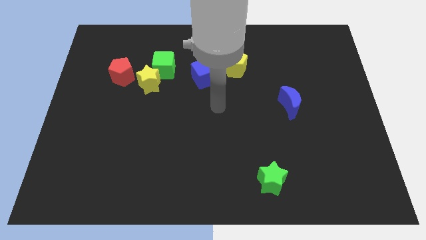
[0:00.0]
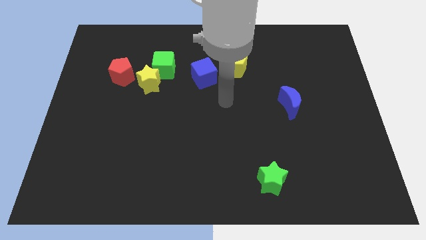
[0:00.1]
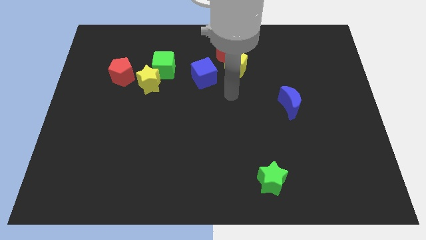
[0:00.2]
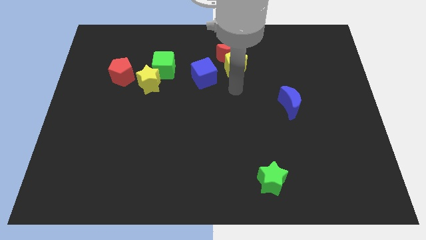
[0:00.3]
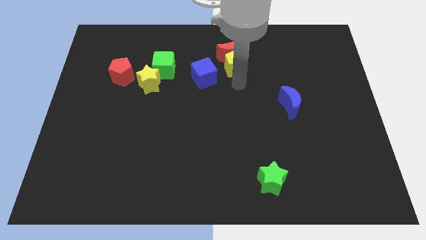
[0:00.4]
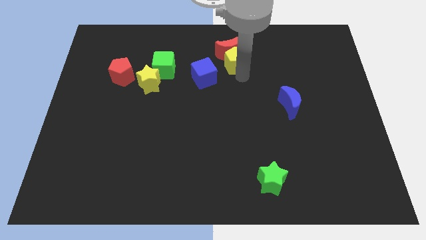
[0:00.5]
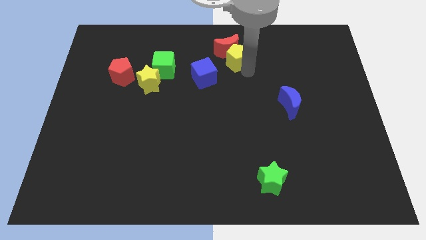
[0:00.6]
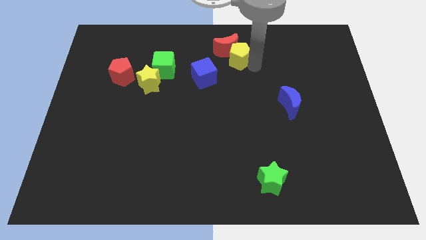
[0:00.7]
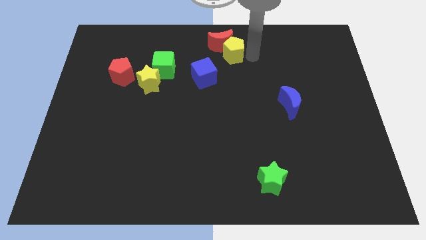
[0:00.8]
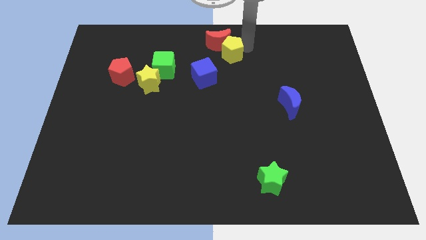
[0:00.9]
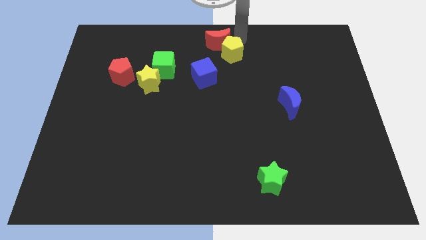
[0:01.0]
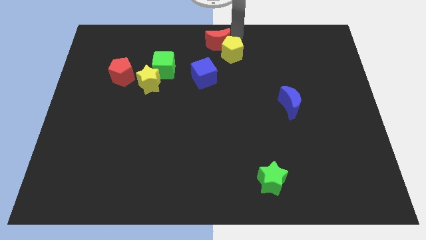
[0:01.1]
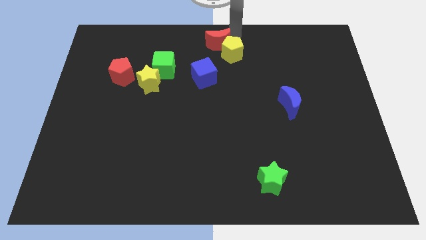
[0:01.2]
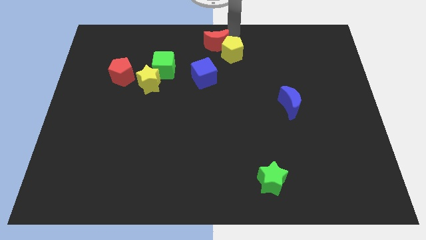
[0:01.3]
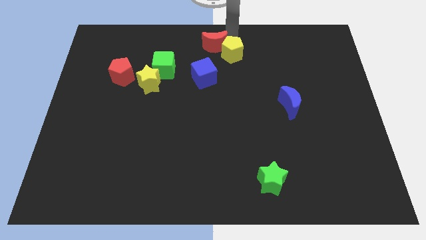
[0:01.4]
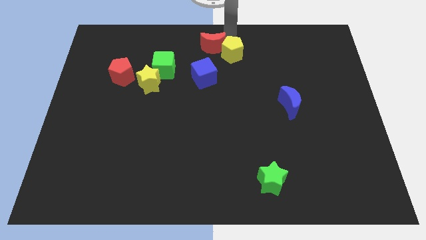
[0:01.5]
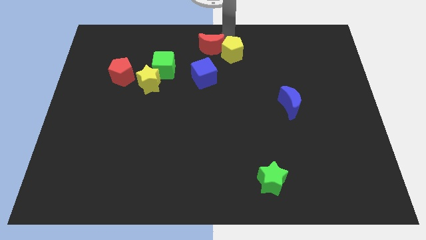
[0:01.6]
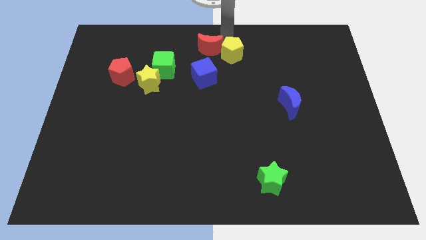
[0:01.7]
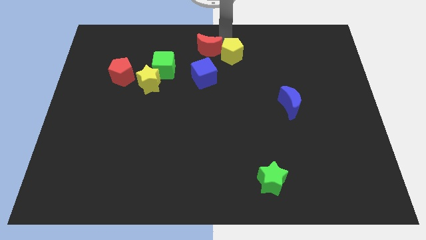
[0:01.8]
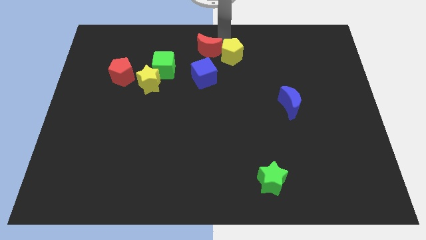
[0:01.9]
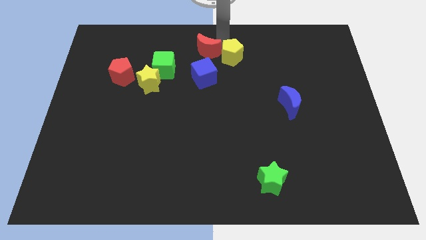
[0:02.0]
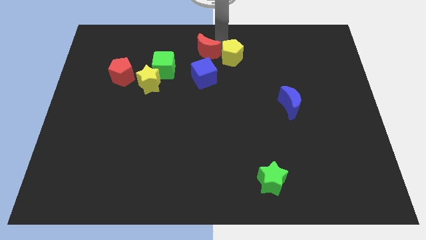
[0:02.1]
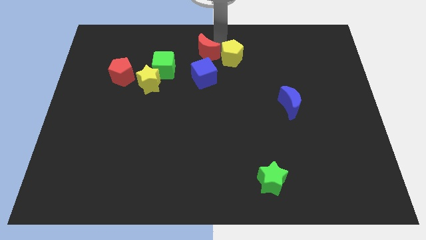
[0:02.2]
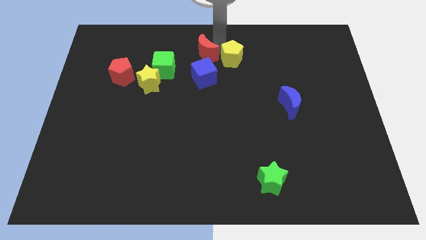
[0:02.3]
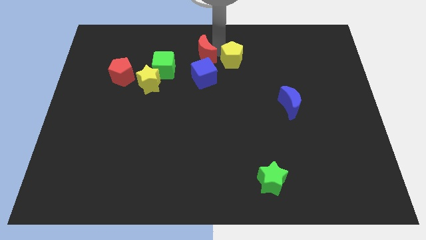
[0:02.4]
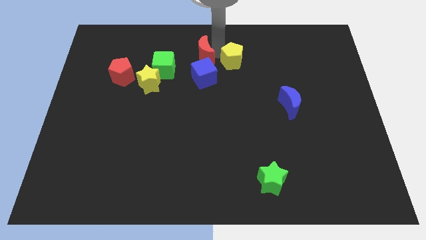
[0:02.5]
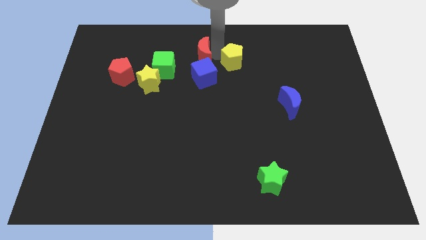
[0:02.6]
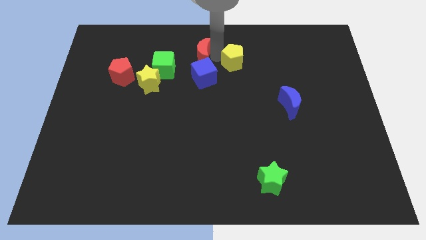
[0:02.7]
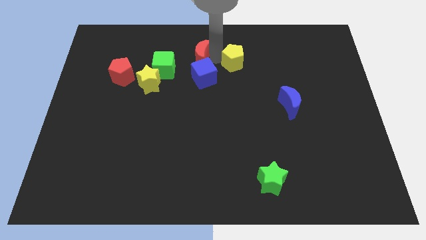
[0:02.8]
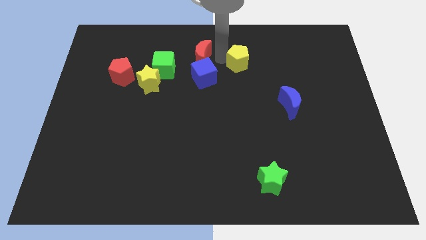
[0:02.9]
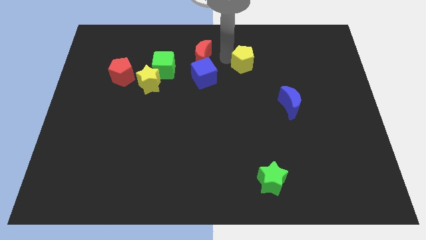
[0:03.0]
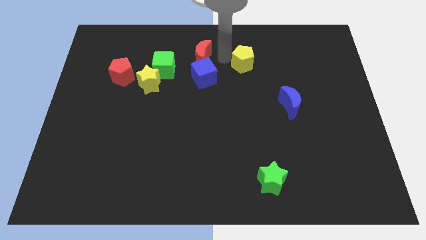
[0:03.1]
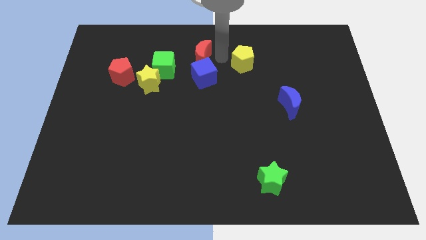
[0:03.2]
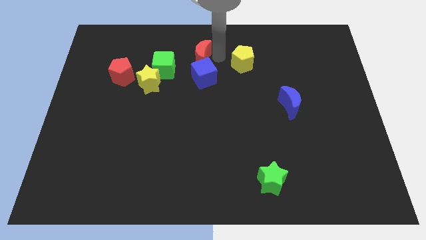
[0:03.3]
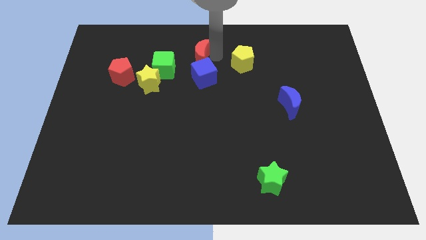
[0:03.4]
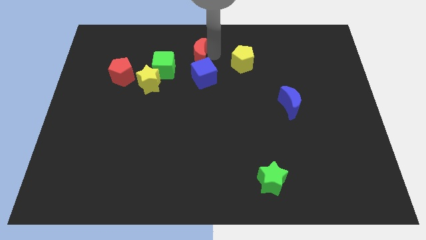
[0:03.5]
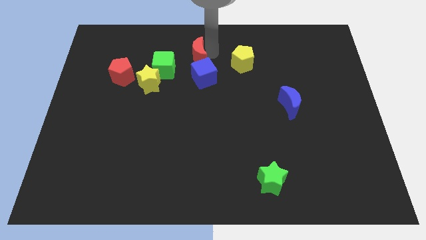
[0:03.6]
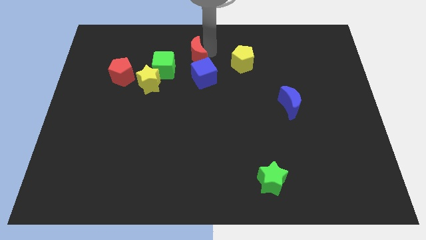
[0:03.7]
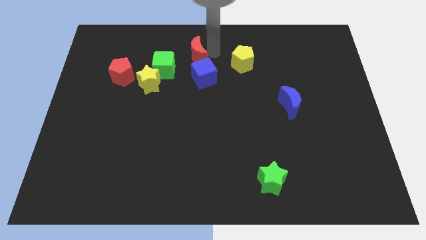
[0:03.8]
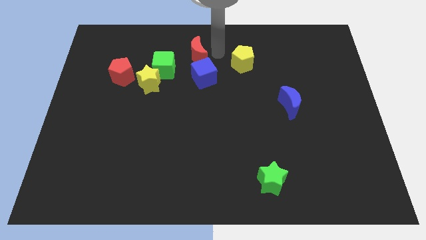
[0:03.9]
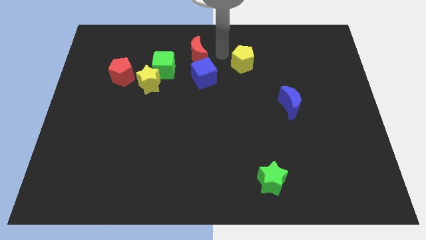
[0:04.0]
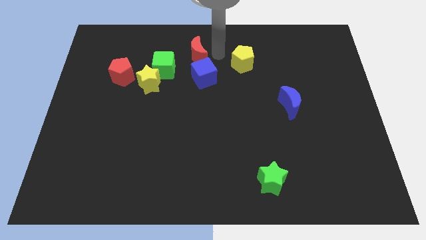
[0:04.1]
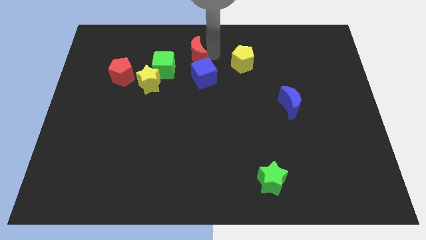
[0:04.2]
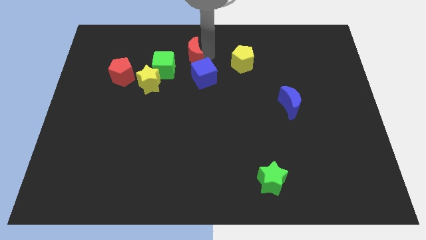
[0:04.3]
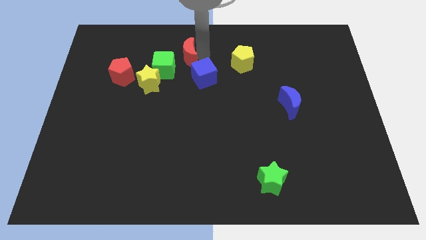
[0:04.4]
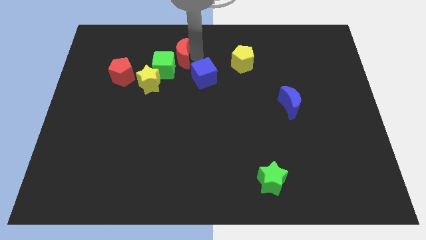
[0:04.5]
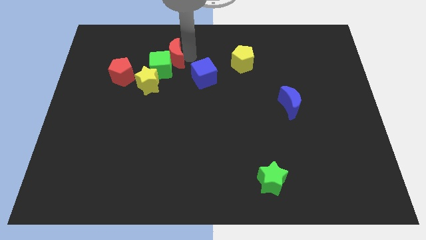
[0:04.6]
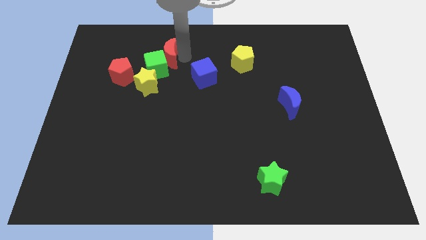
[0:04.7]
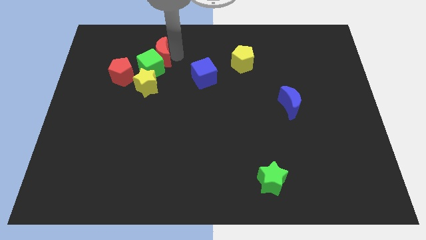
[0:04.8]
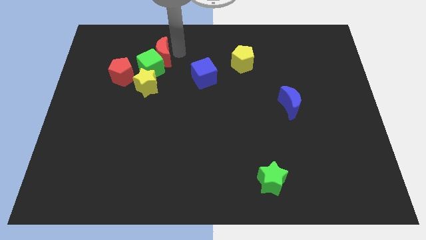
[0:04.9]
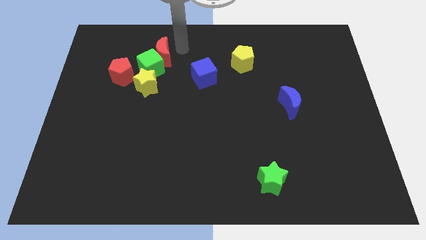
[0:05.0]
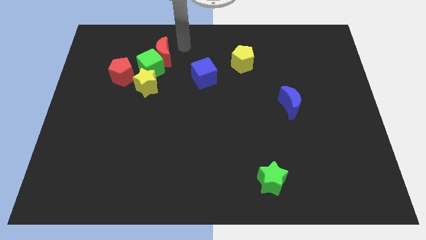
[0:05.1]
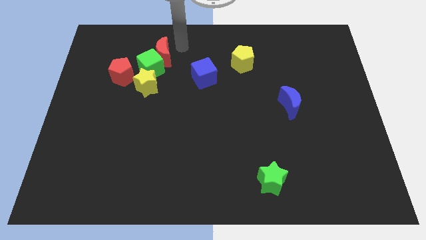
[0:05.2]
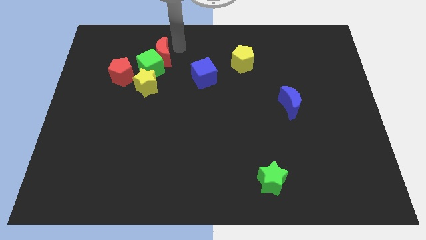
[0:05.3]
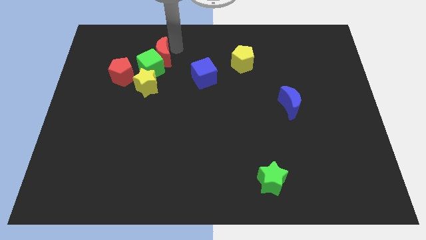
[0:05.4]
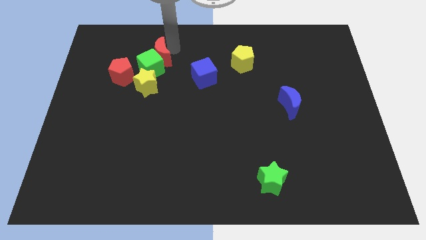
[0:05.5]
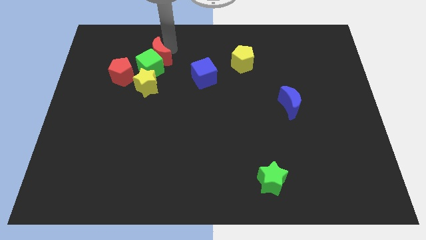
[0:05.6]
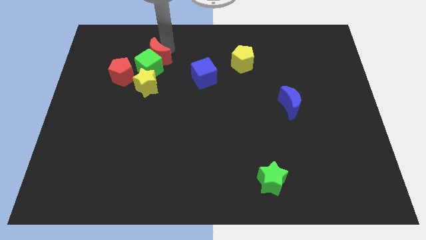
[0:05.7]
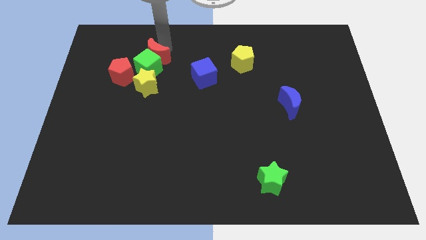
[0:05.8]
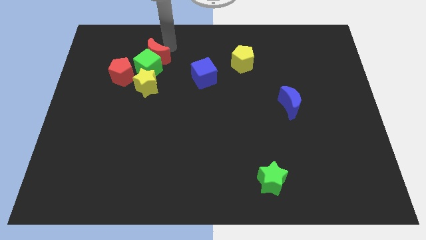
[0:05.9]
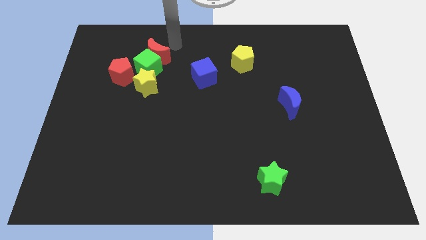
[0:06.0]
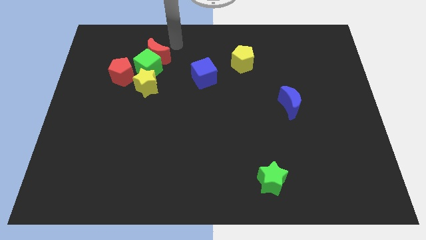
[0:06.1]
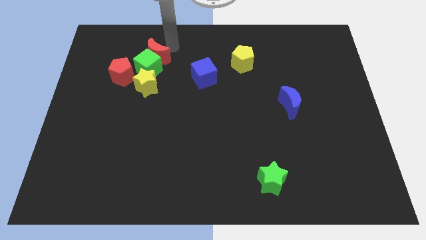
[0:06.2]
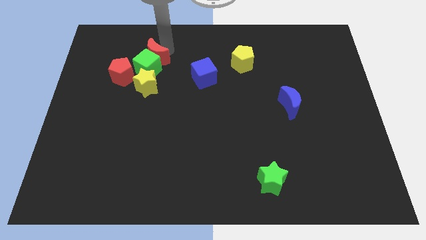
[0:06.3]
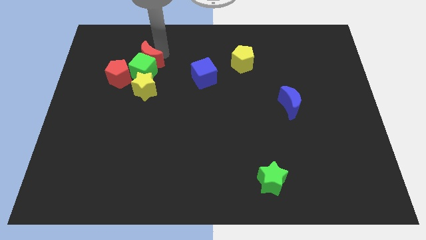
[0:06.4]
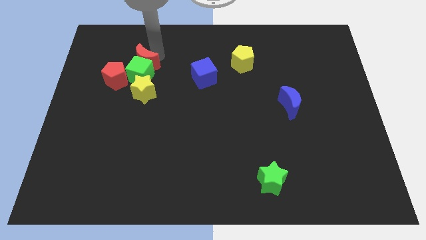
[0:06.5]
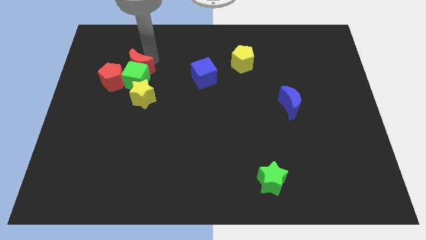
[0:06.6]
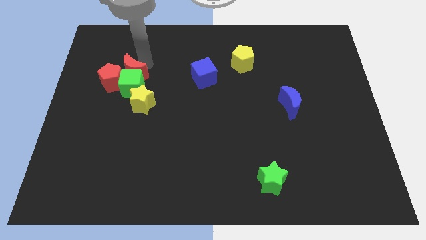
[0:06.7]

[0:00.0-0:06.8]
slide the red moon to the red pentagon

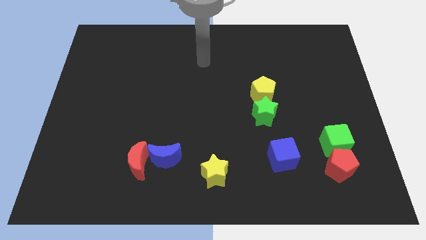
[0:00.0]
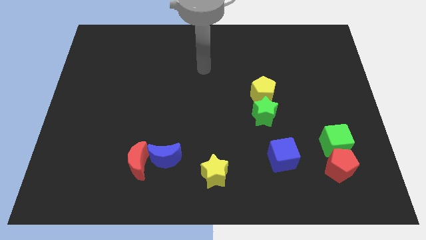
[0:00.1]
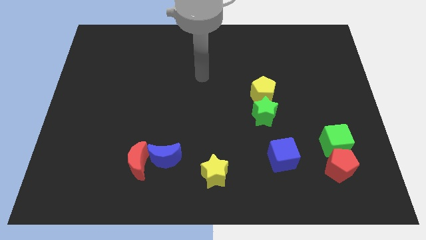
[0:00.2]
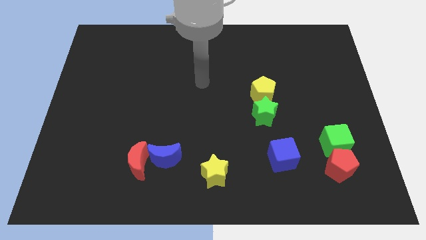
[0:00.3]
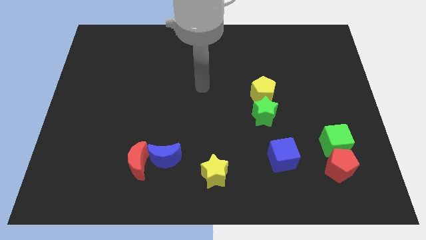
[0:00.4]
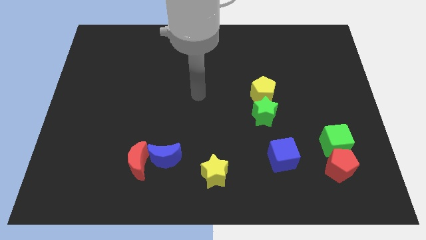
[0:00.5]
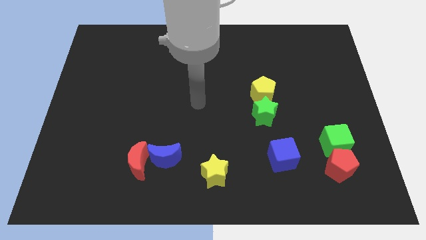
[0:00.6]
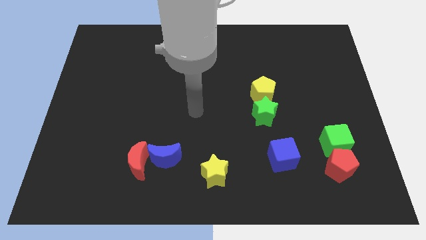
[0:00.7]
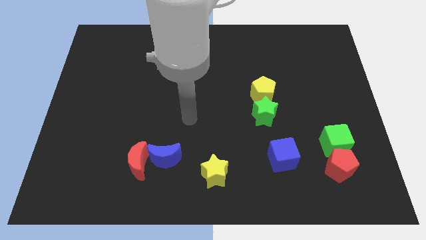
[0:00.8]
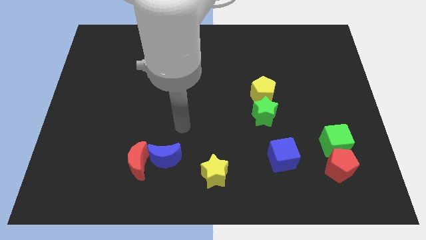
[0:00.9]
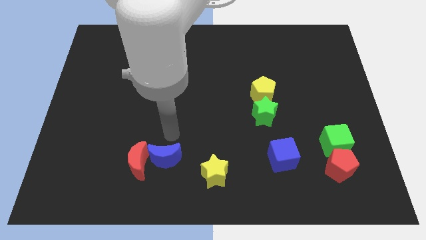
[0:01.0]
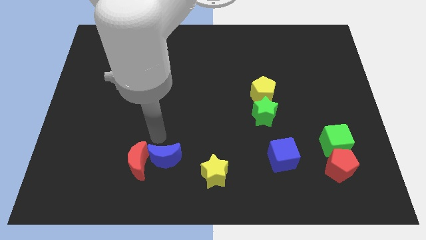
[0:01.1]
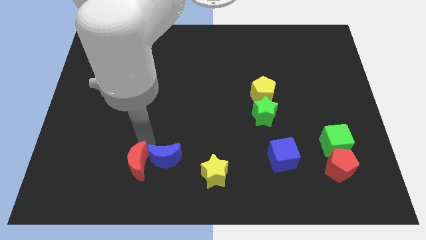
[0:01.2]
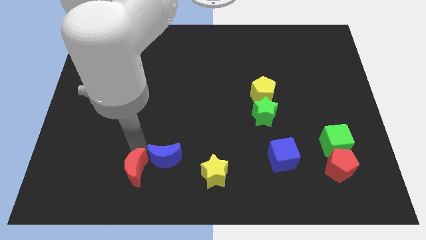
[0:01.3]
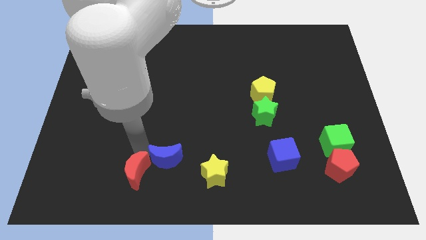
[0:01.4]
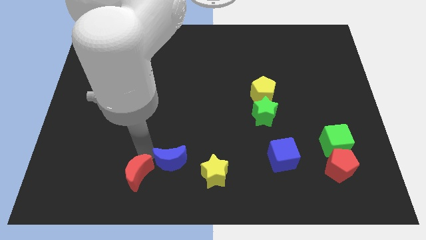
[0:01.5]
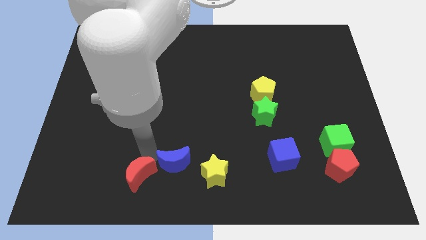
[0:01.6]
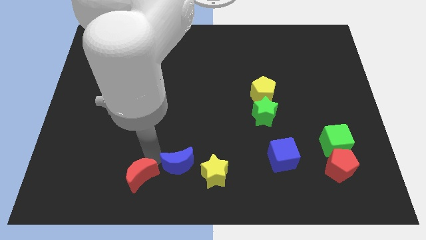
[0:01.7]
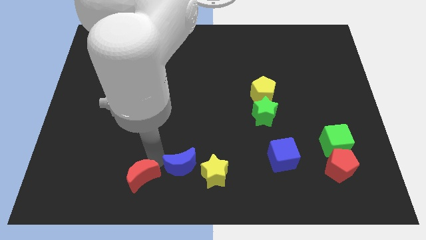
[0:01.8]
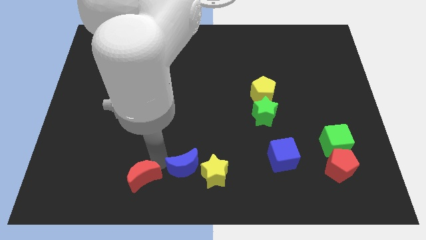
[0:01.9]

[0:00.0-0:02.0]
push the blue moon close to the yellow star
